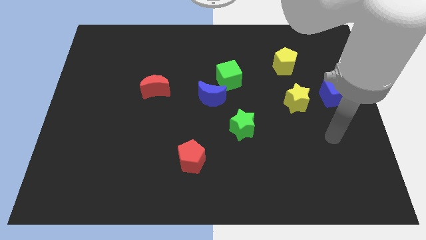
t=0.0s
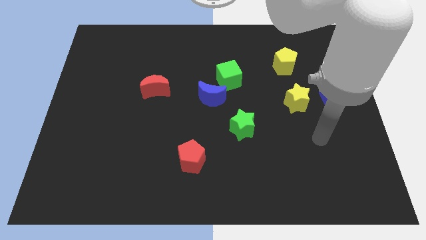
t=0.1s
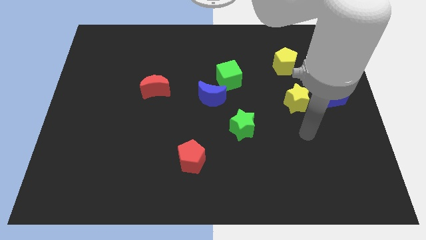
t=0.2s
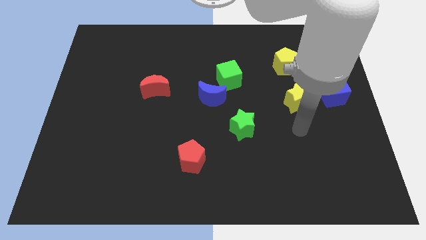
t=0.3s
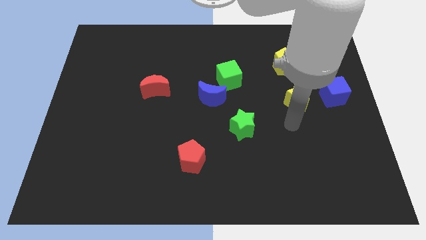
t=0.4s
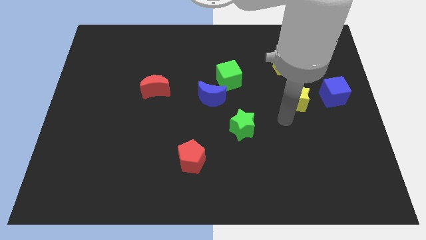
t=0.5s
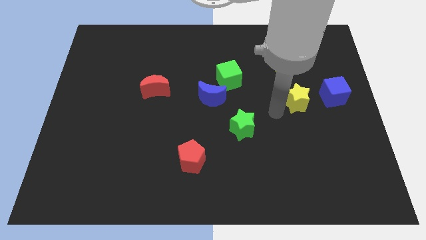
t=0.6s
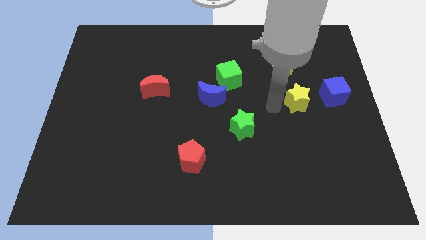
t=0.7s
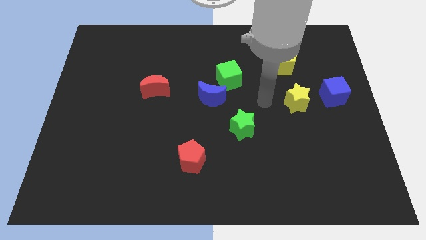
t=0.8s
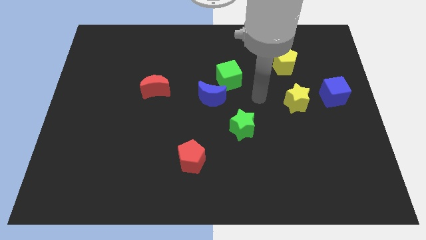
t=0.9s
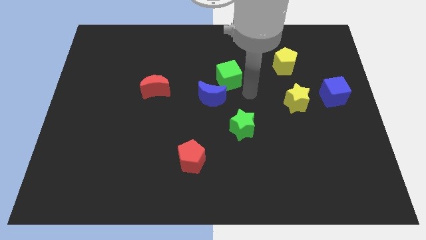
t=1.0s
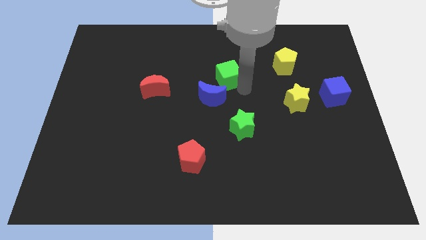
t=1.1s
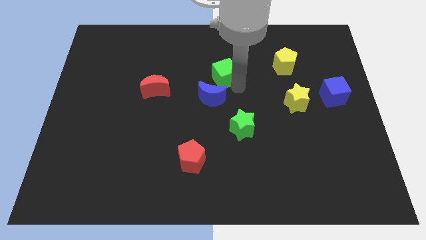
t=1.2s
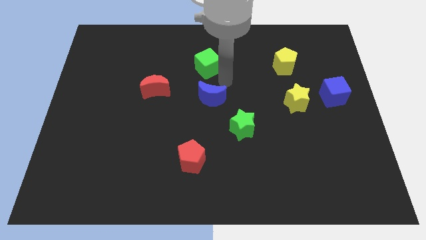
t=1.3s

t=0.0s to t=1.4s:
separate the blue moon from the green cube

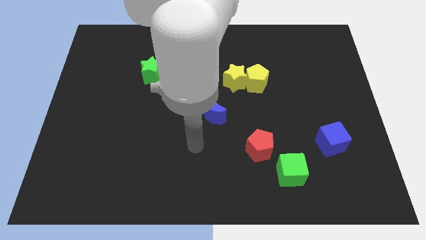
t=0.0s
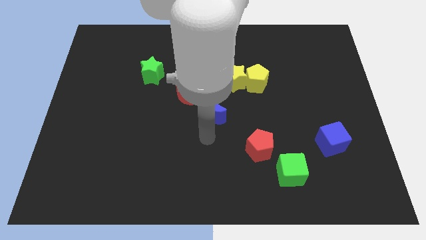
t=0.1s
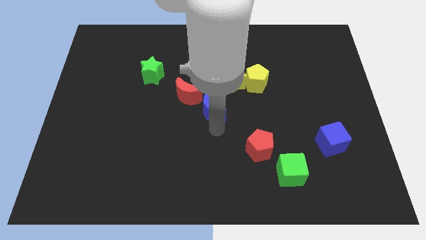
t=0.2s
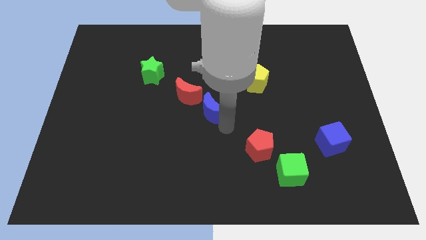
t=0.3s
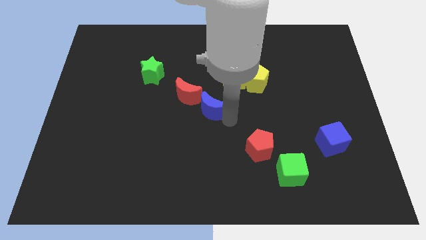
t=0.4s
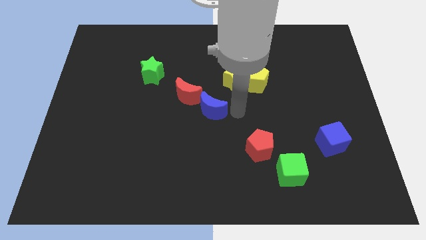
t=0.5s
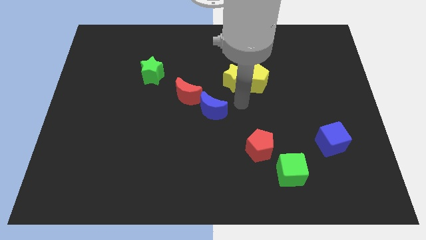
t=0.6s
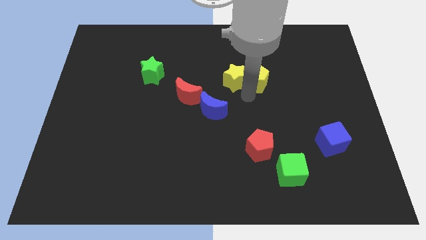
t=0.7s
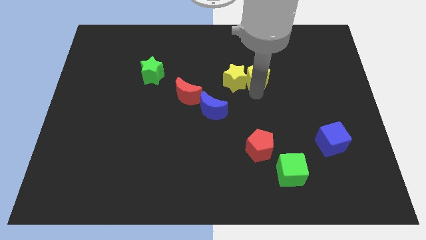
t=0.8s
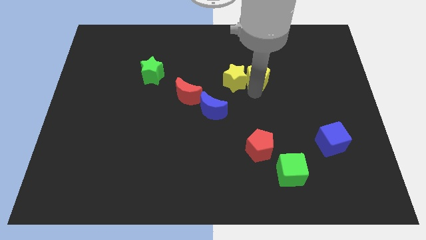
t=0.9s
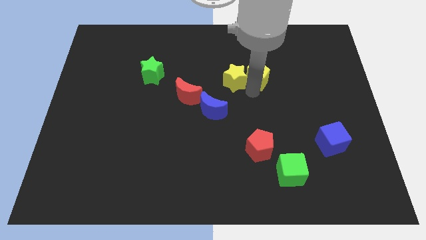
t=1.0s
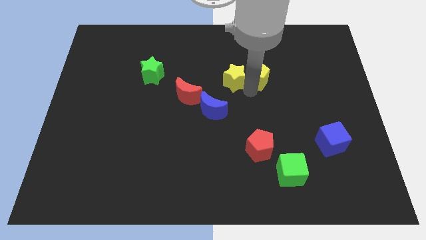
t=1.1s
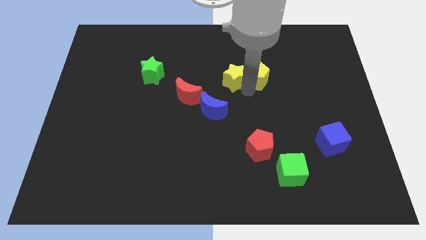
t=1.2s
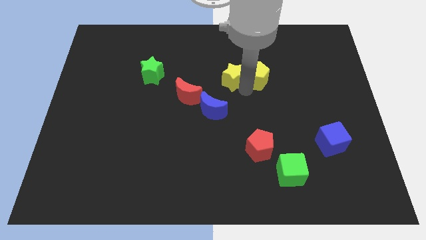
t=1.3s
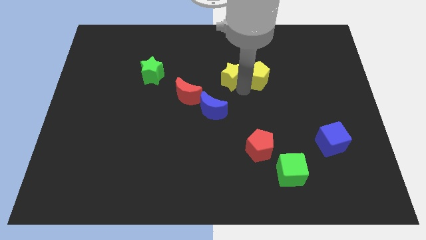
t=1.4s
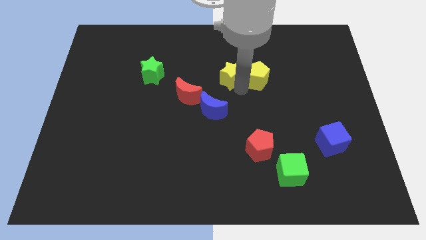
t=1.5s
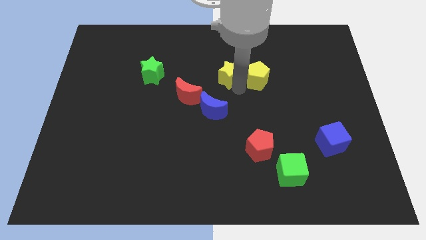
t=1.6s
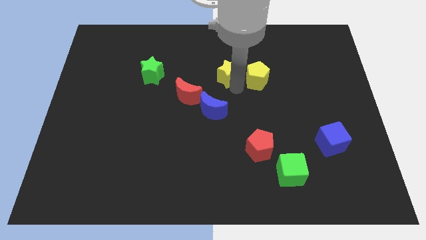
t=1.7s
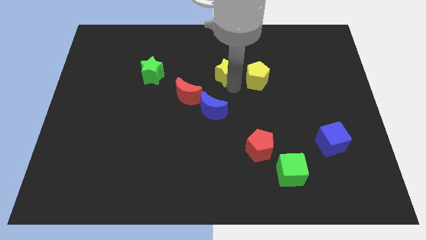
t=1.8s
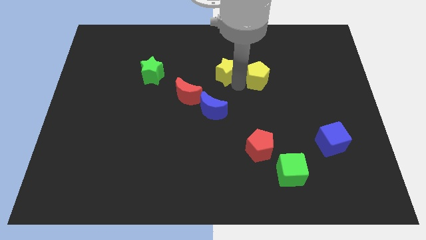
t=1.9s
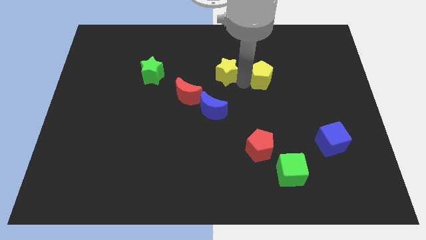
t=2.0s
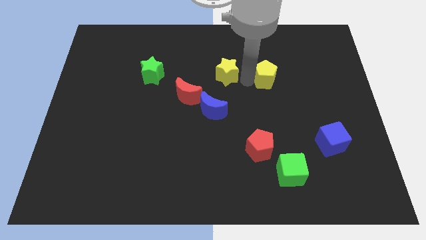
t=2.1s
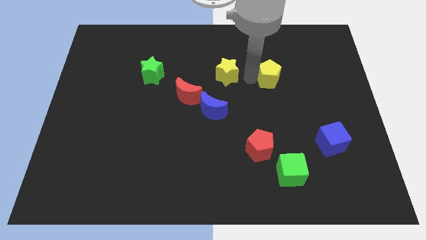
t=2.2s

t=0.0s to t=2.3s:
separate the yellow star from the yellow pentagon

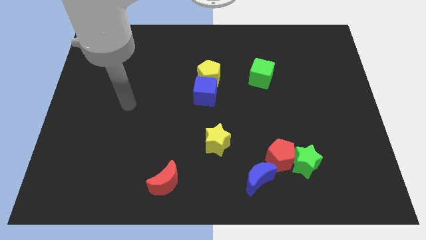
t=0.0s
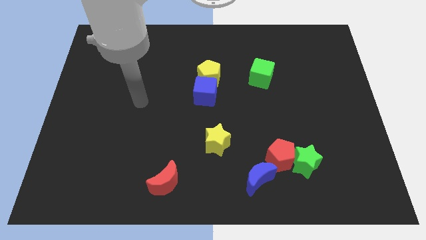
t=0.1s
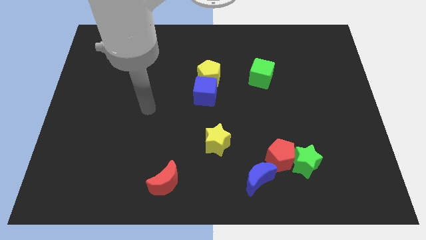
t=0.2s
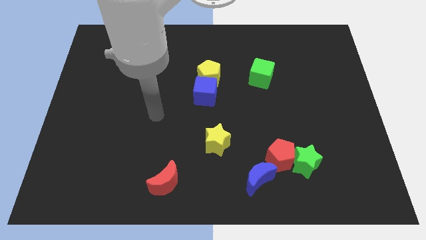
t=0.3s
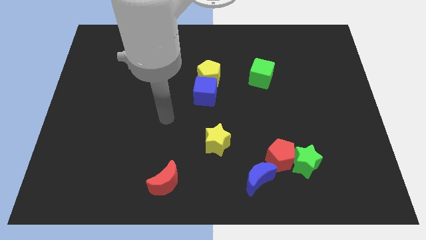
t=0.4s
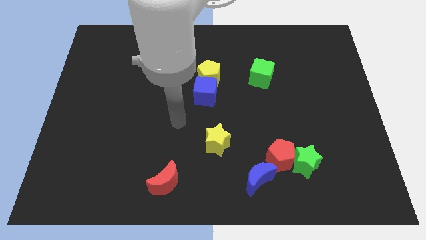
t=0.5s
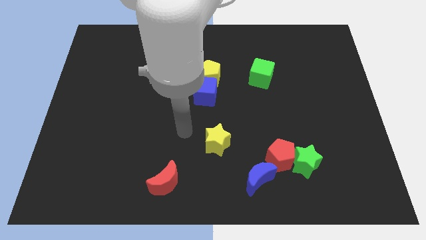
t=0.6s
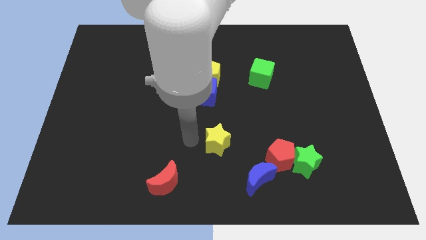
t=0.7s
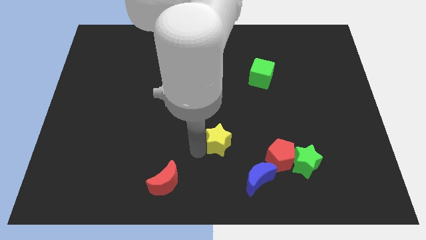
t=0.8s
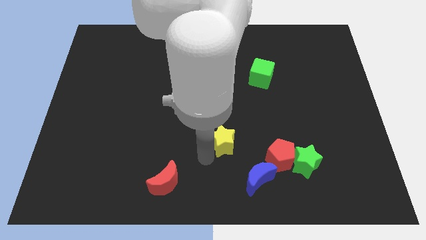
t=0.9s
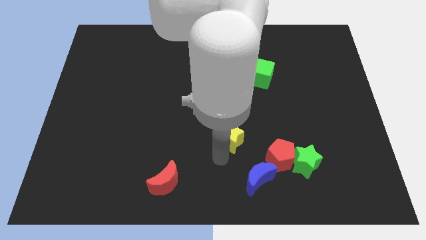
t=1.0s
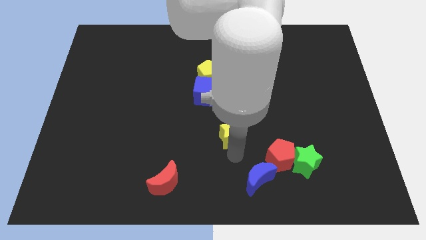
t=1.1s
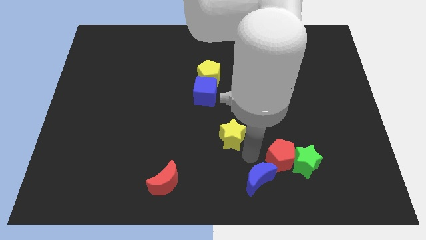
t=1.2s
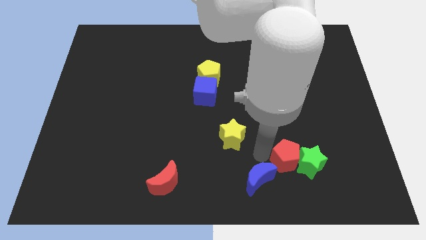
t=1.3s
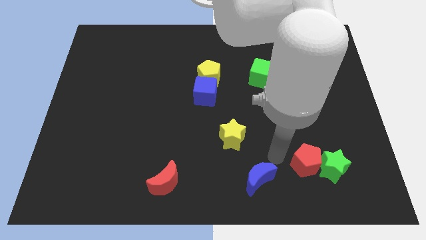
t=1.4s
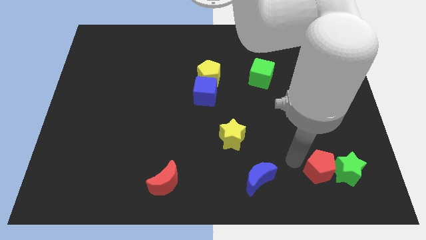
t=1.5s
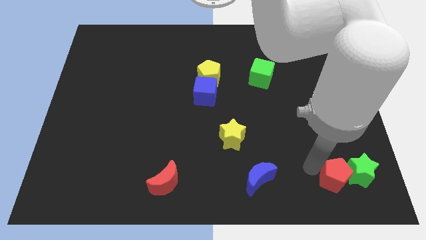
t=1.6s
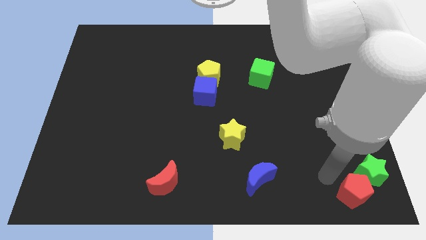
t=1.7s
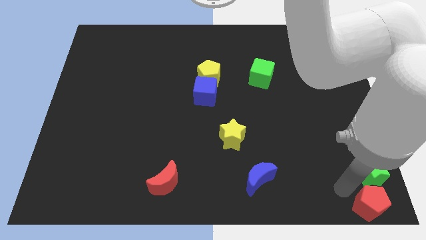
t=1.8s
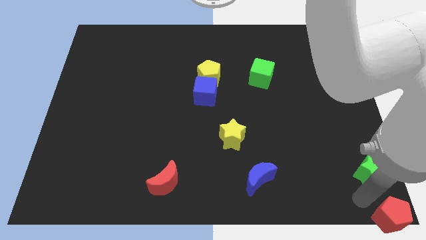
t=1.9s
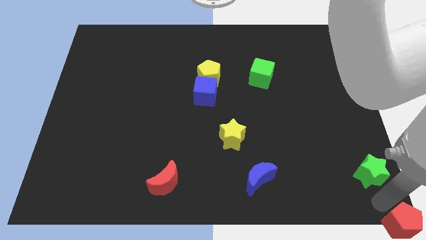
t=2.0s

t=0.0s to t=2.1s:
move the green star away from the red pentagon

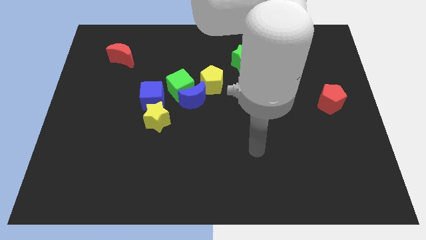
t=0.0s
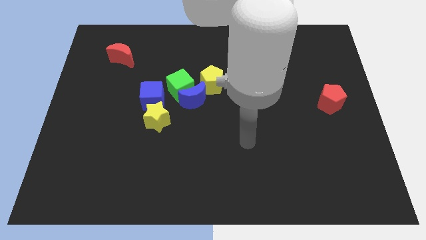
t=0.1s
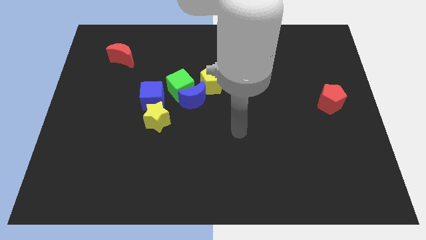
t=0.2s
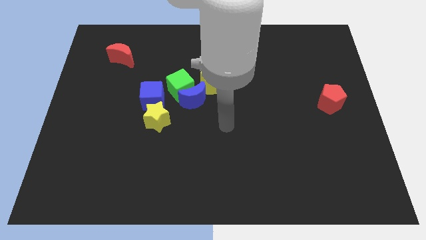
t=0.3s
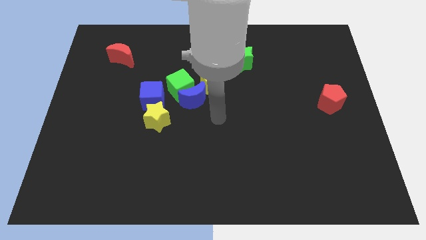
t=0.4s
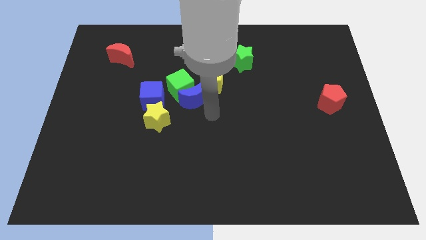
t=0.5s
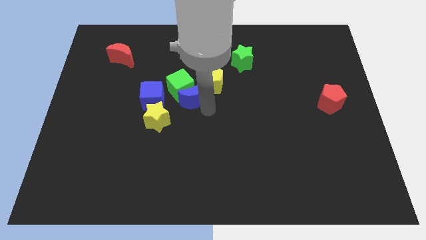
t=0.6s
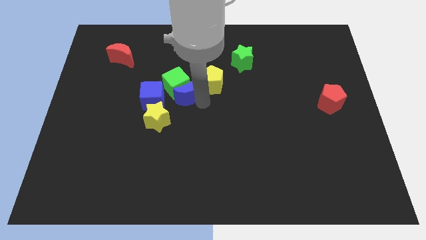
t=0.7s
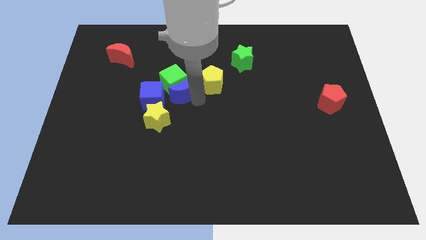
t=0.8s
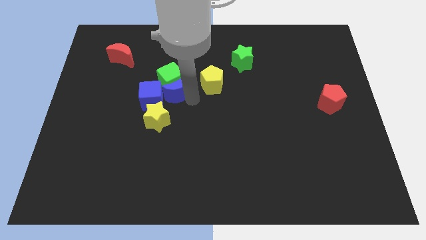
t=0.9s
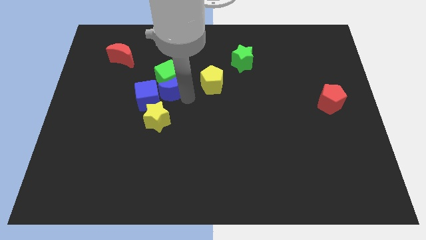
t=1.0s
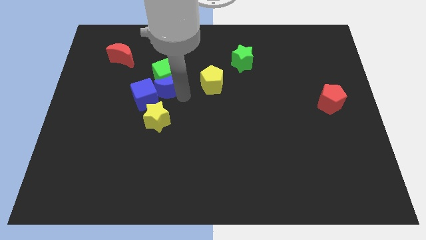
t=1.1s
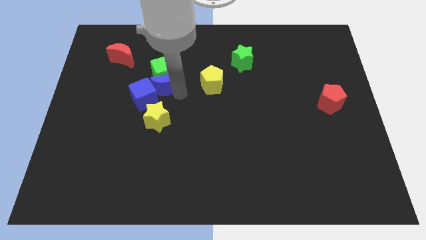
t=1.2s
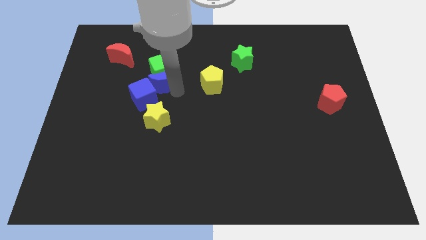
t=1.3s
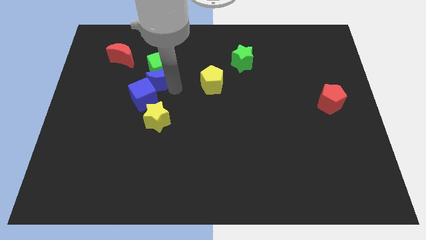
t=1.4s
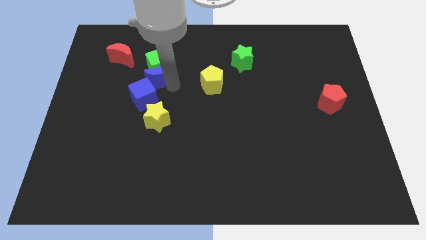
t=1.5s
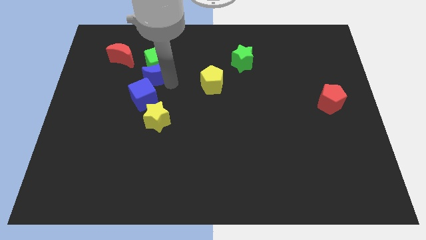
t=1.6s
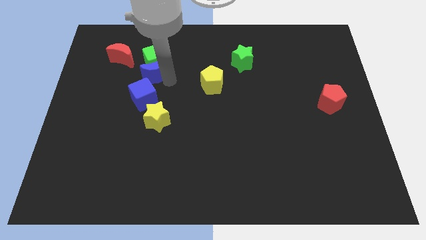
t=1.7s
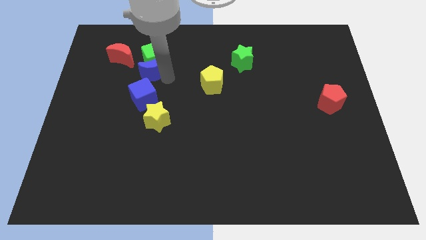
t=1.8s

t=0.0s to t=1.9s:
pull the green cube apart from the group

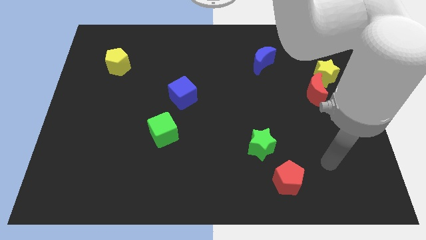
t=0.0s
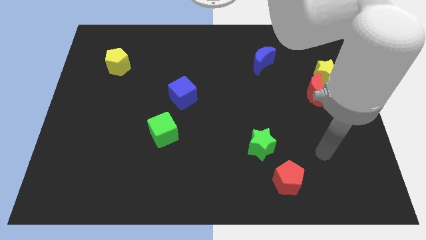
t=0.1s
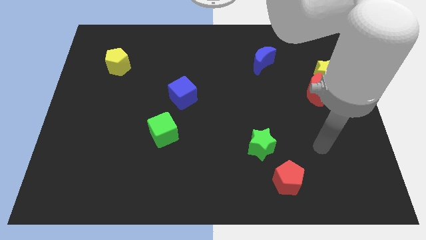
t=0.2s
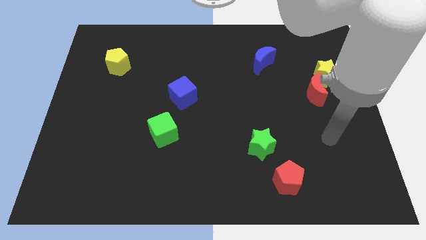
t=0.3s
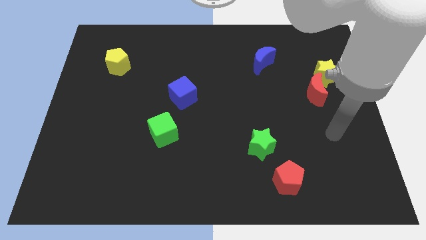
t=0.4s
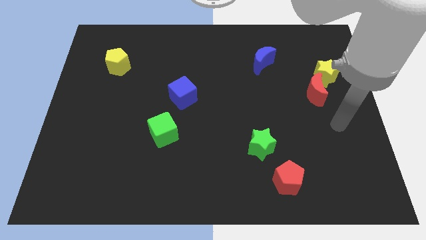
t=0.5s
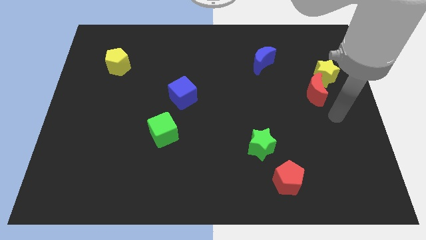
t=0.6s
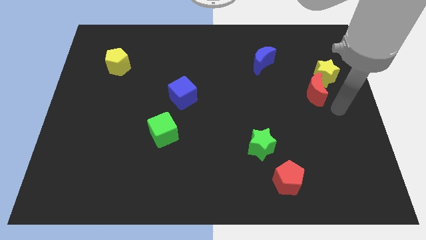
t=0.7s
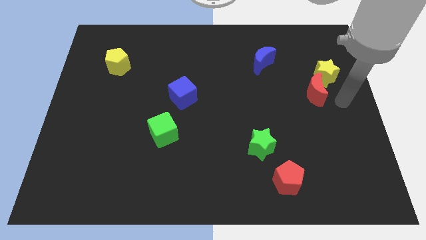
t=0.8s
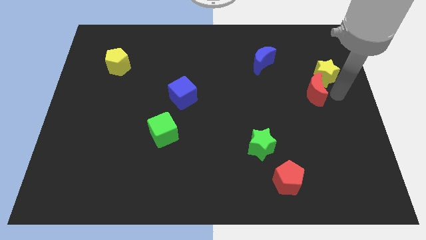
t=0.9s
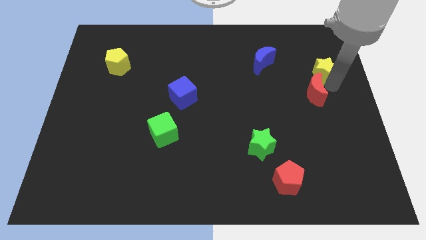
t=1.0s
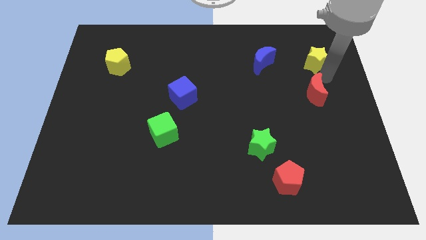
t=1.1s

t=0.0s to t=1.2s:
separate the red moon from the yellow star

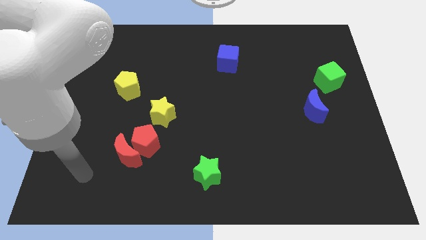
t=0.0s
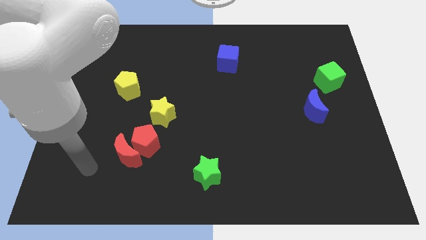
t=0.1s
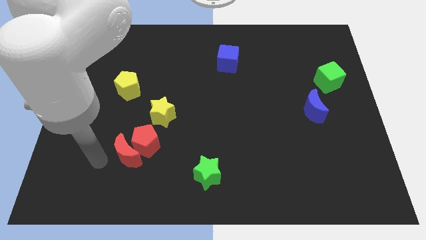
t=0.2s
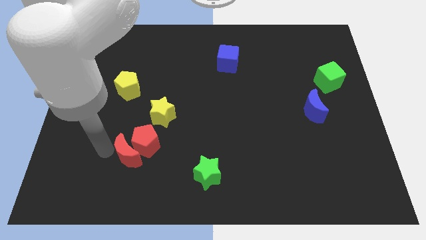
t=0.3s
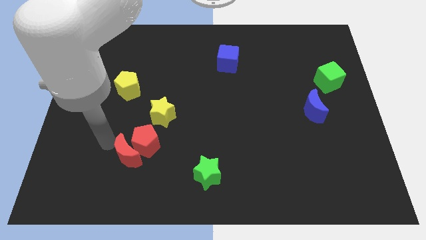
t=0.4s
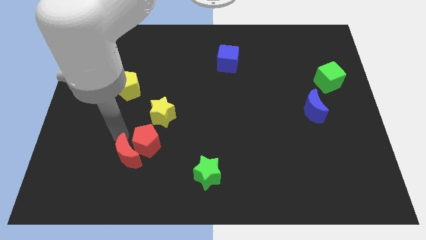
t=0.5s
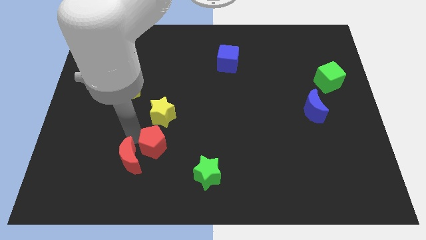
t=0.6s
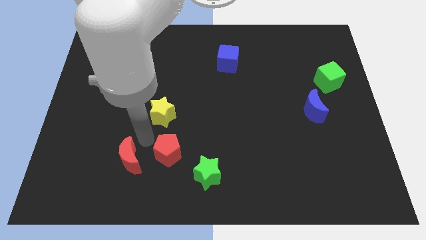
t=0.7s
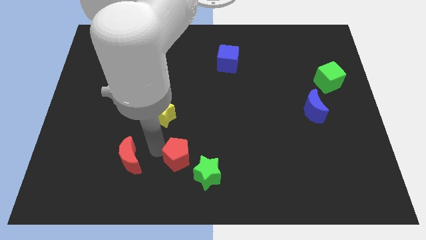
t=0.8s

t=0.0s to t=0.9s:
pull the red moon apart from the red pentagon
